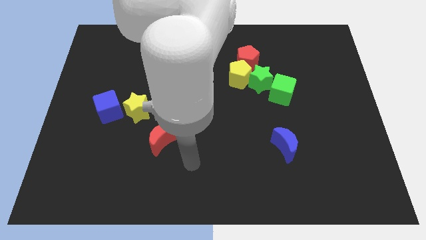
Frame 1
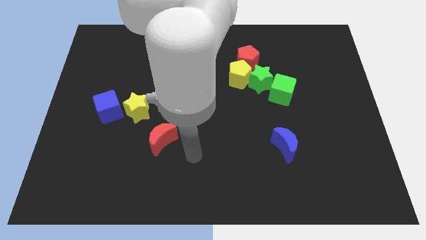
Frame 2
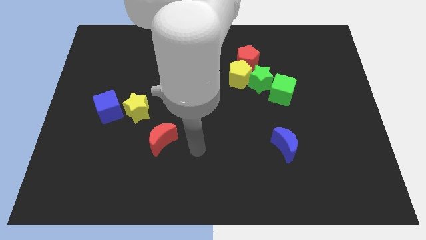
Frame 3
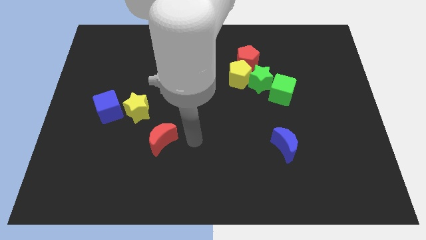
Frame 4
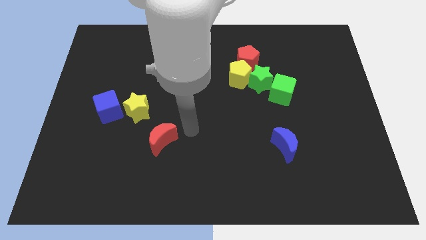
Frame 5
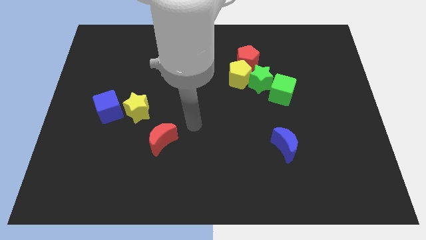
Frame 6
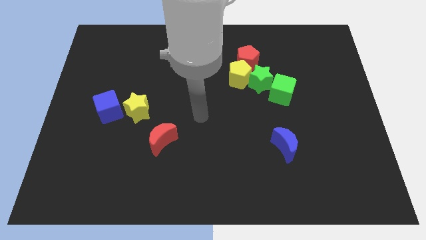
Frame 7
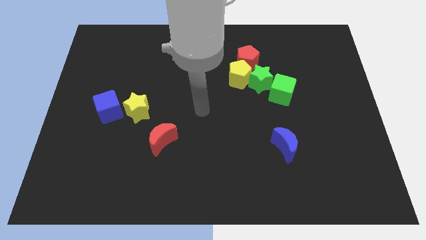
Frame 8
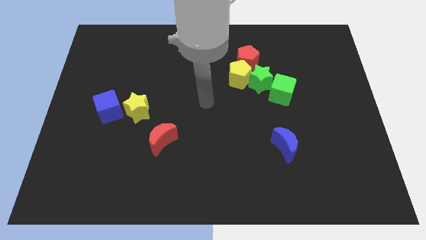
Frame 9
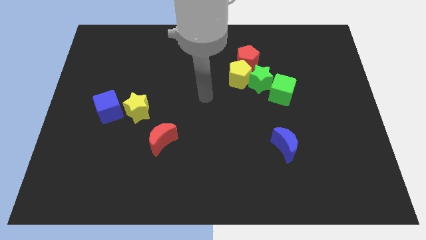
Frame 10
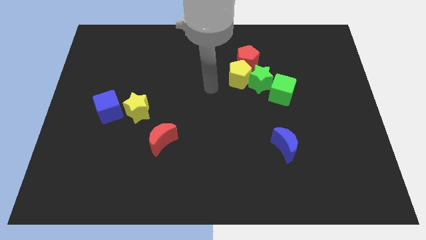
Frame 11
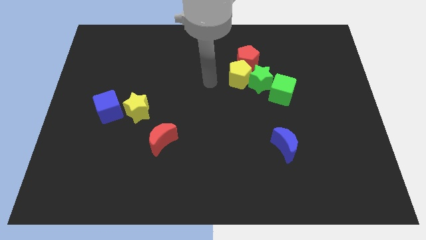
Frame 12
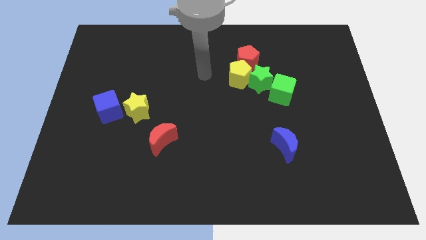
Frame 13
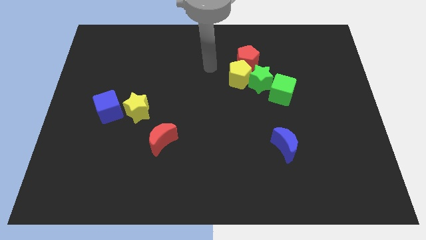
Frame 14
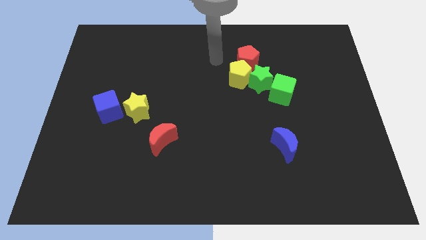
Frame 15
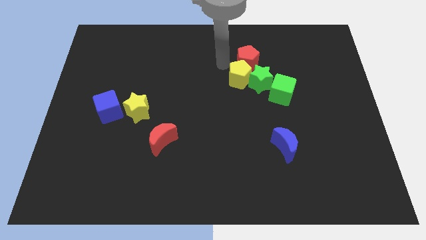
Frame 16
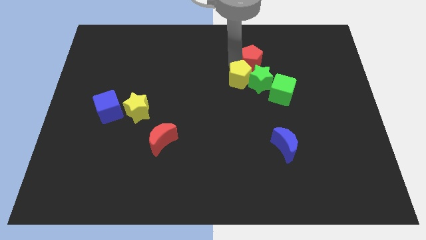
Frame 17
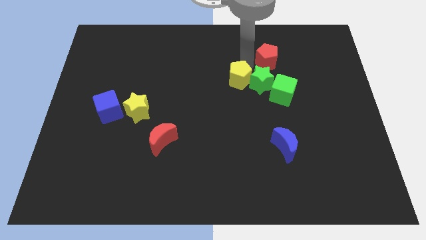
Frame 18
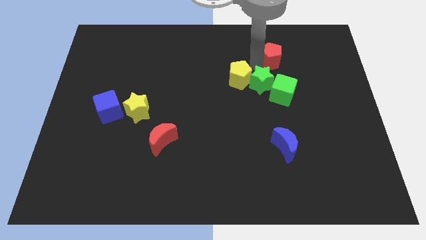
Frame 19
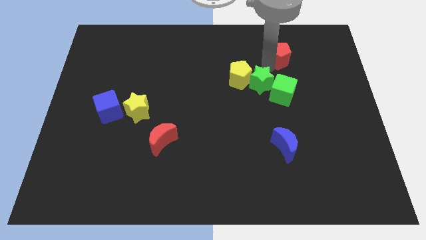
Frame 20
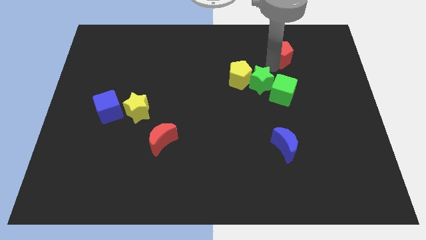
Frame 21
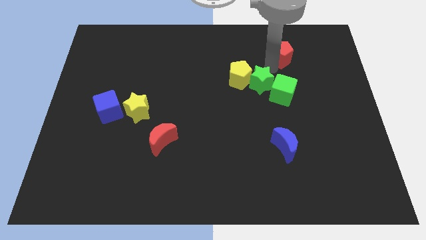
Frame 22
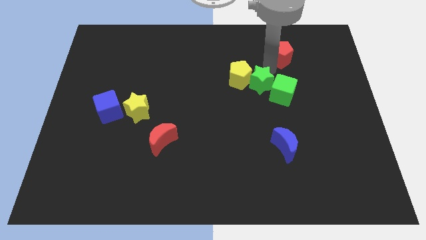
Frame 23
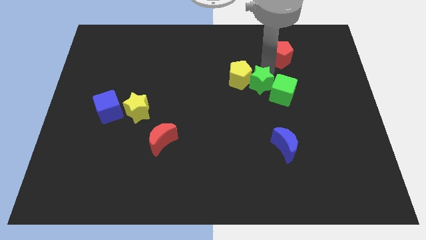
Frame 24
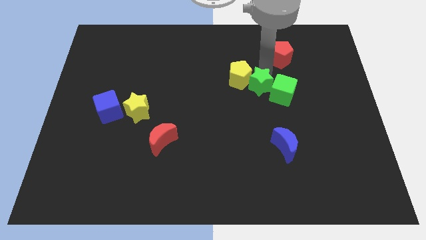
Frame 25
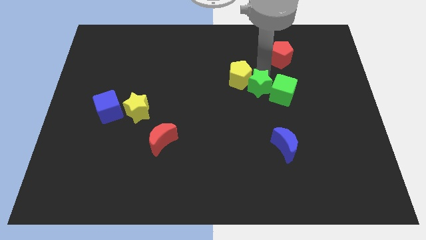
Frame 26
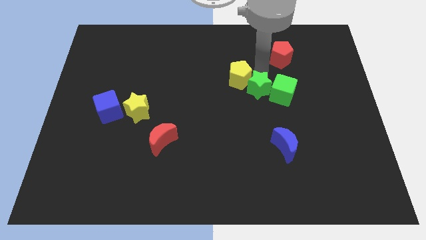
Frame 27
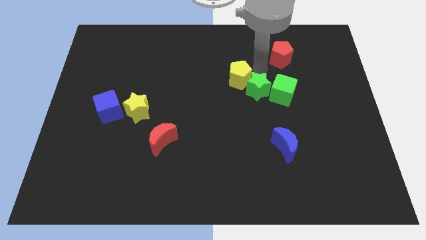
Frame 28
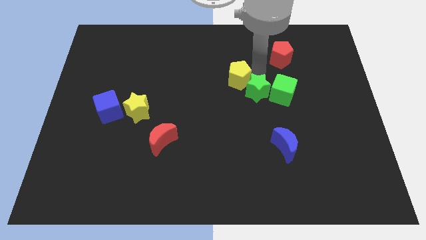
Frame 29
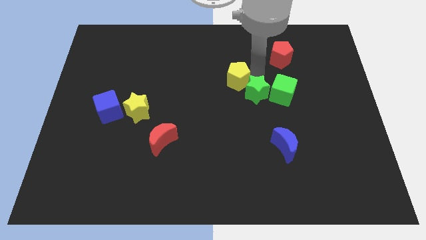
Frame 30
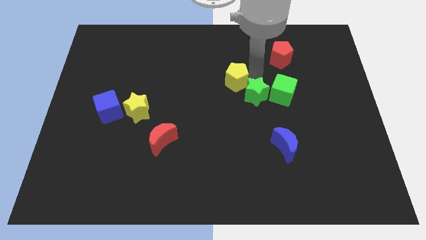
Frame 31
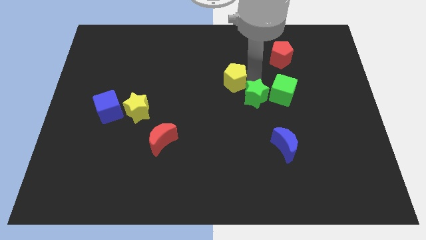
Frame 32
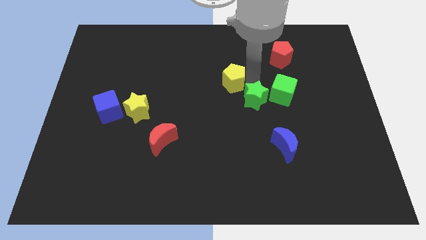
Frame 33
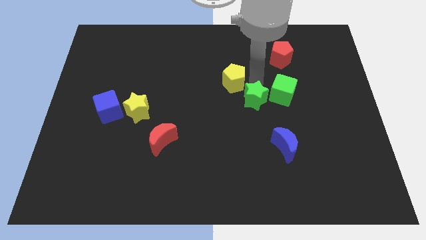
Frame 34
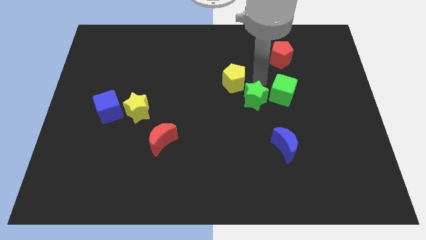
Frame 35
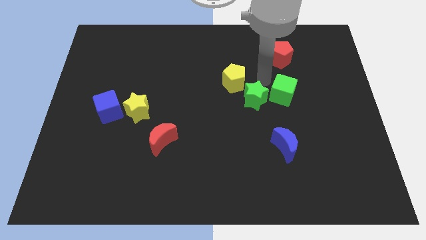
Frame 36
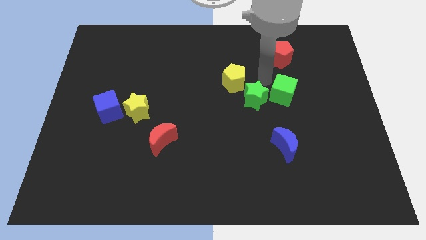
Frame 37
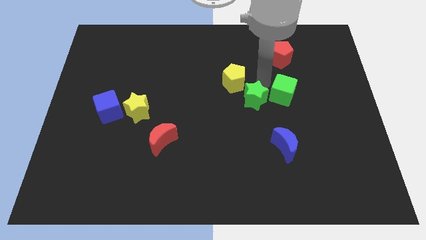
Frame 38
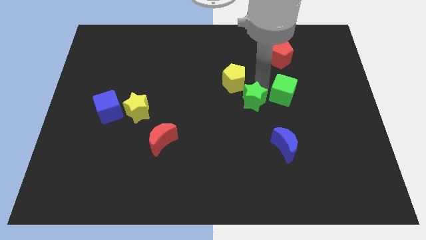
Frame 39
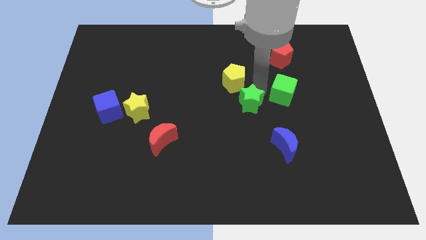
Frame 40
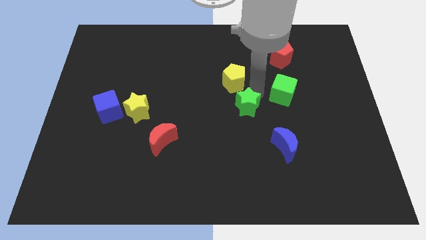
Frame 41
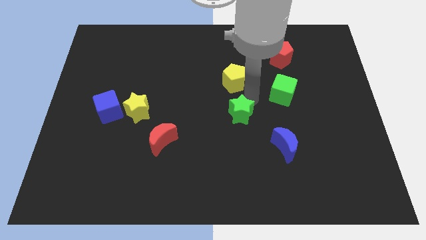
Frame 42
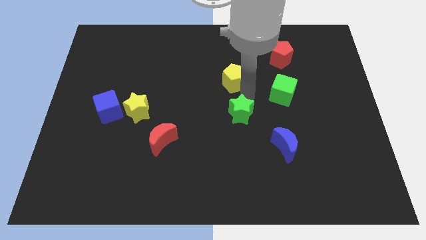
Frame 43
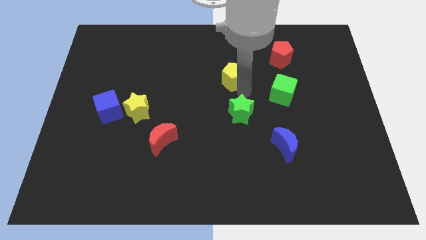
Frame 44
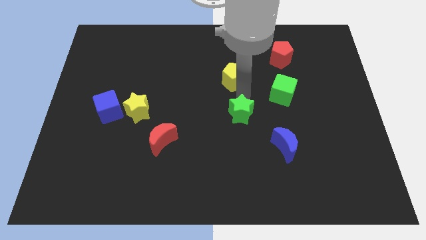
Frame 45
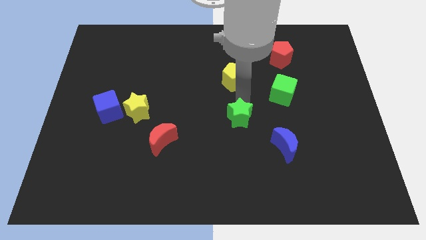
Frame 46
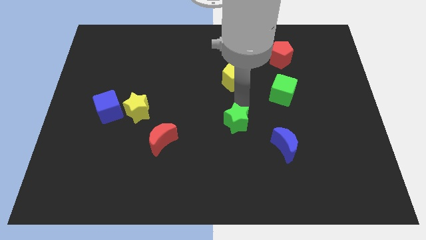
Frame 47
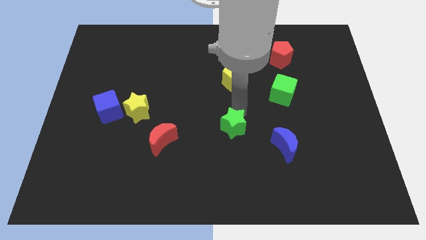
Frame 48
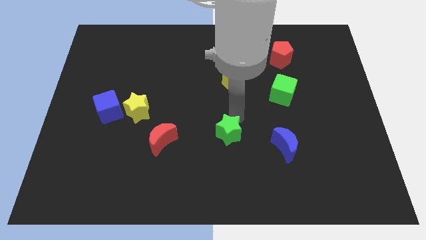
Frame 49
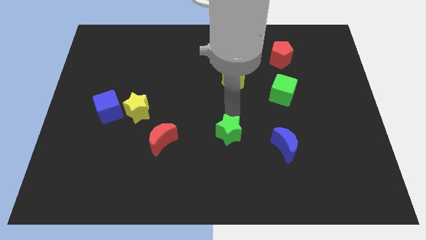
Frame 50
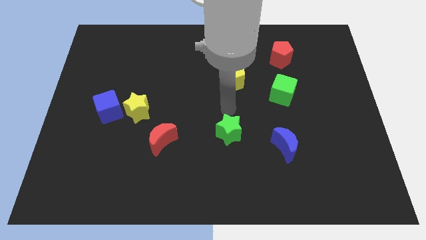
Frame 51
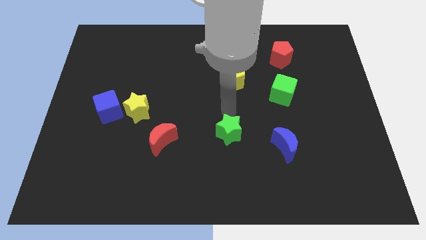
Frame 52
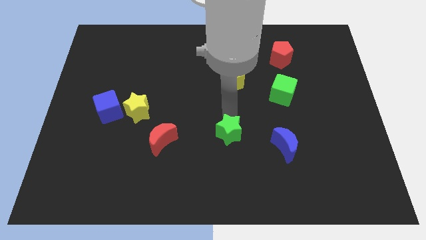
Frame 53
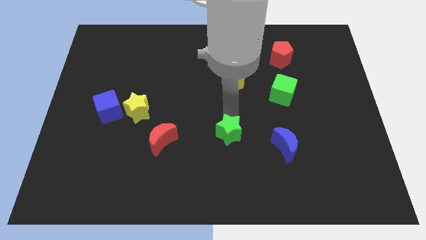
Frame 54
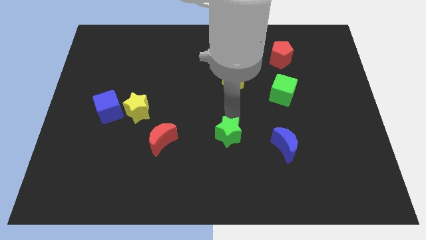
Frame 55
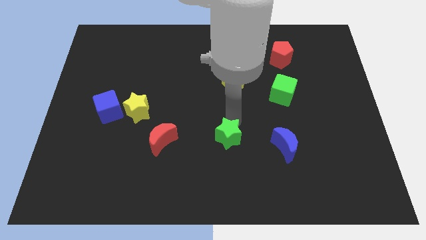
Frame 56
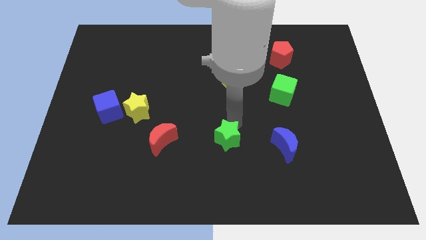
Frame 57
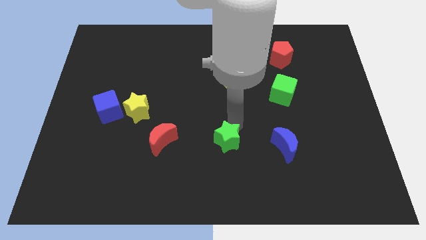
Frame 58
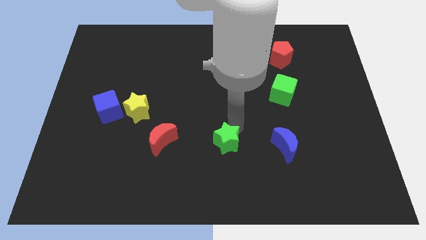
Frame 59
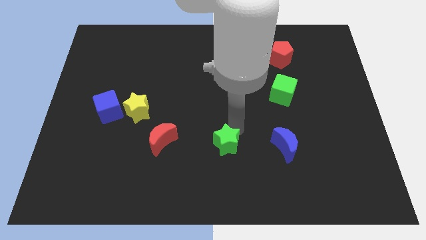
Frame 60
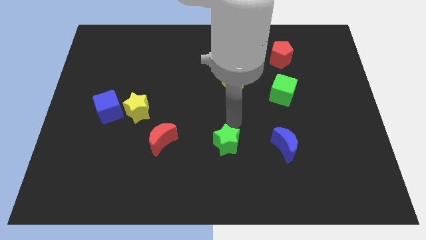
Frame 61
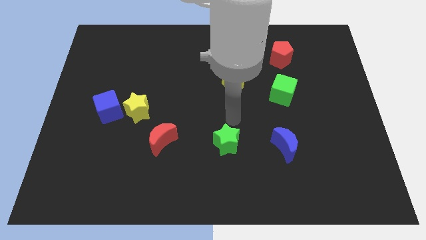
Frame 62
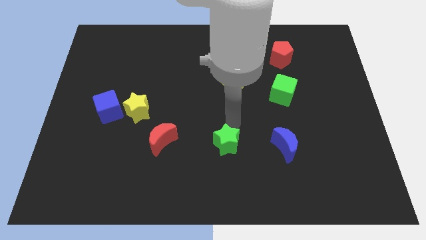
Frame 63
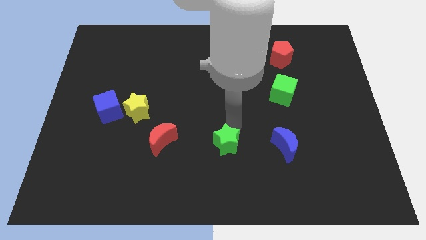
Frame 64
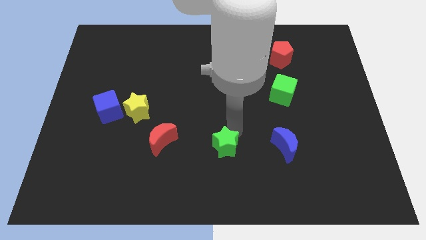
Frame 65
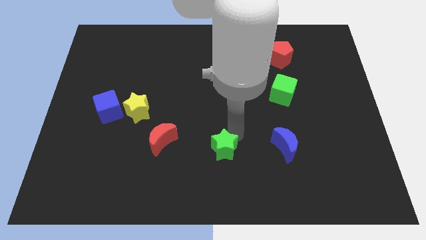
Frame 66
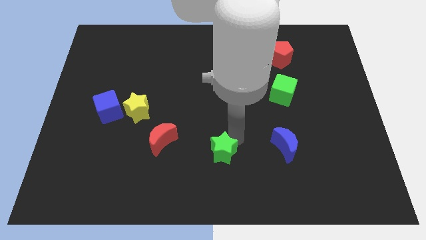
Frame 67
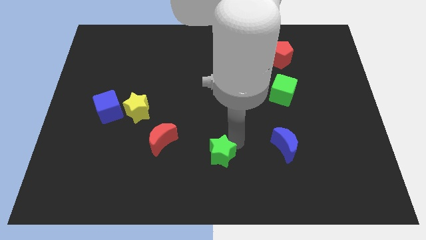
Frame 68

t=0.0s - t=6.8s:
slide the green star to the bottom
